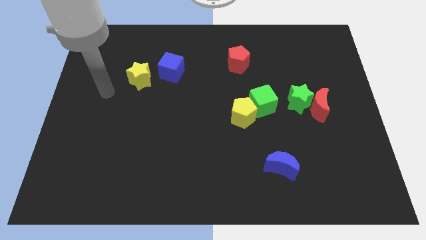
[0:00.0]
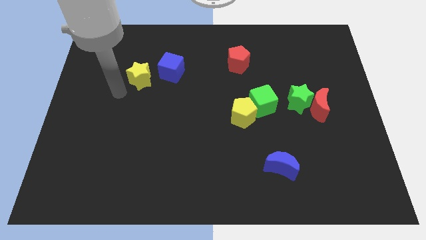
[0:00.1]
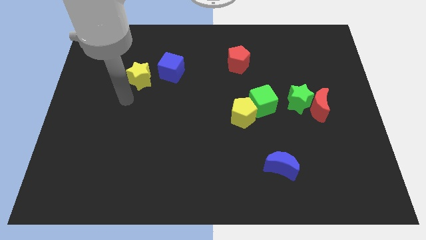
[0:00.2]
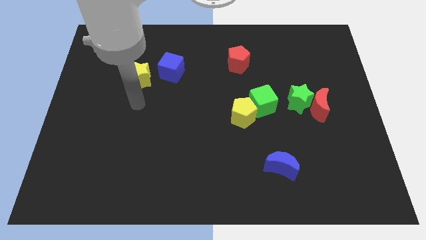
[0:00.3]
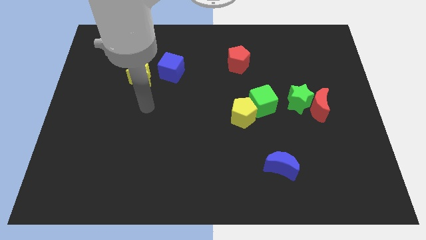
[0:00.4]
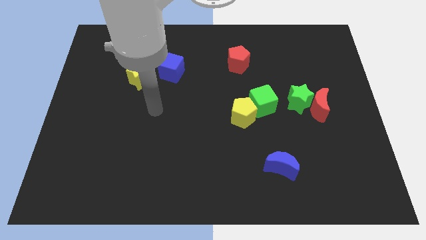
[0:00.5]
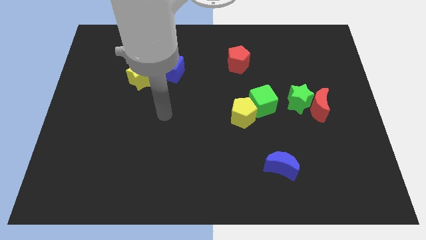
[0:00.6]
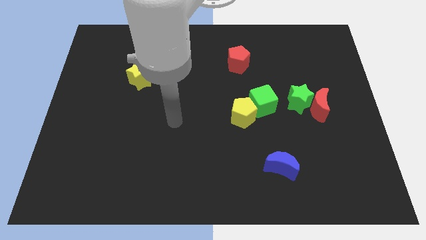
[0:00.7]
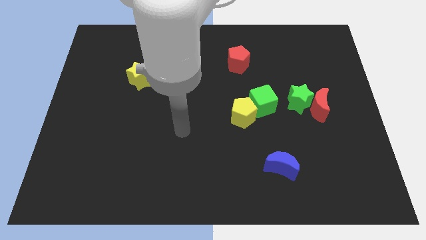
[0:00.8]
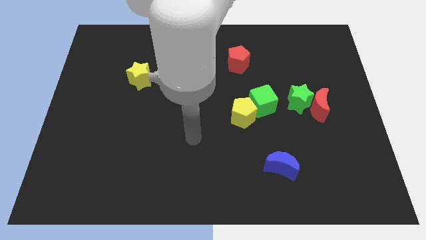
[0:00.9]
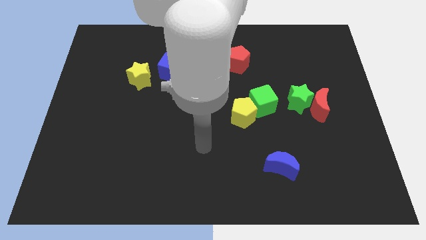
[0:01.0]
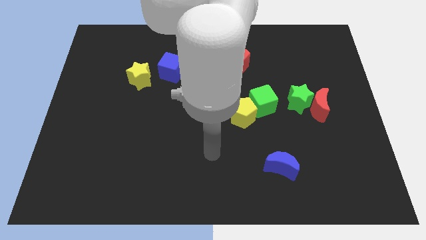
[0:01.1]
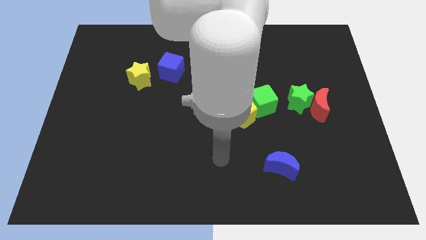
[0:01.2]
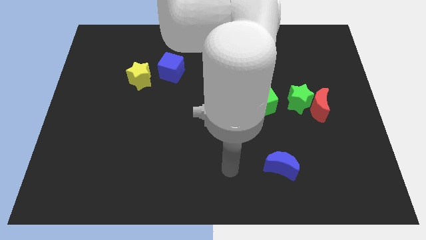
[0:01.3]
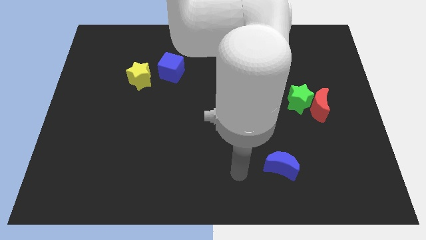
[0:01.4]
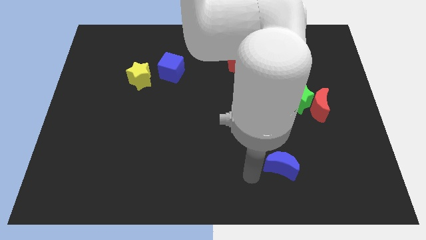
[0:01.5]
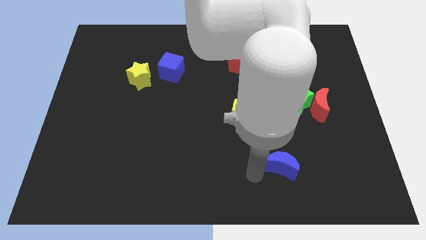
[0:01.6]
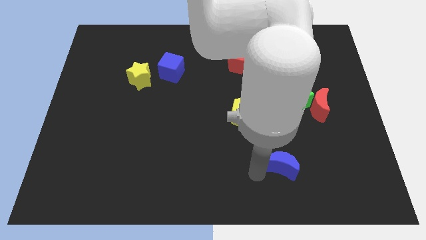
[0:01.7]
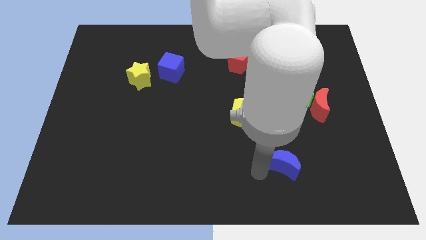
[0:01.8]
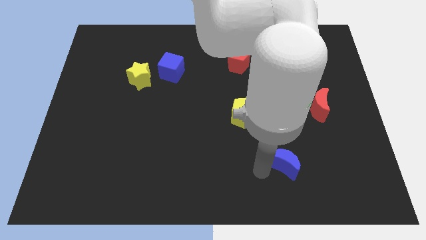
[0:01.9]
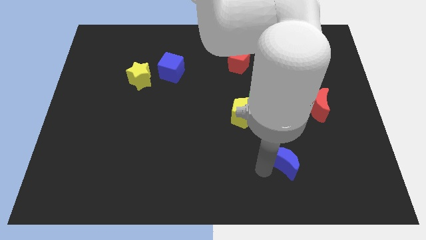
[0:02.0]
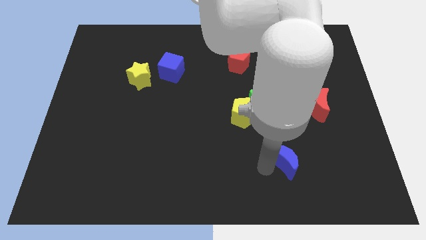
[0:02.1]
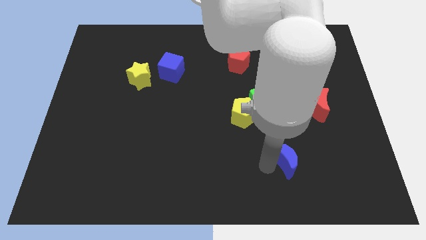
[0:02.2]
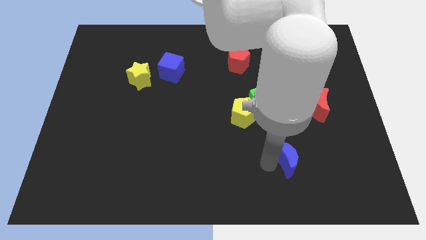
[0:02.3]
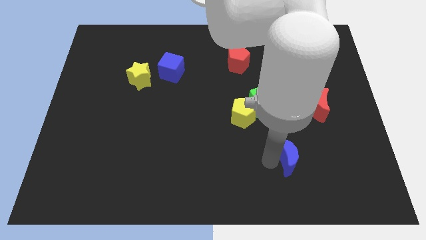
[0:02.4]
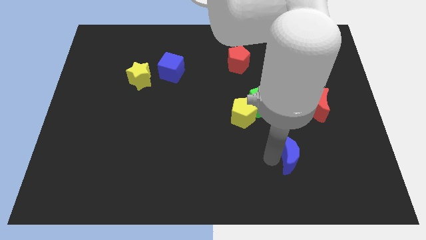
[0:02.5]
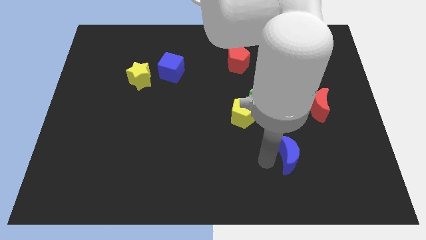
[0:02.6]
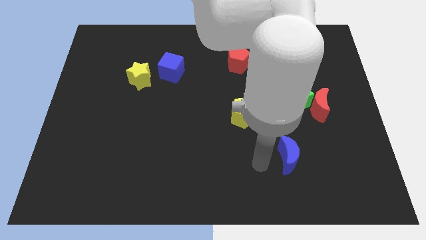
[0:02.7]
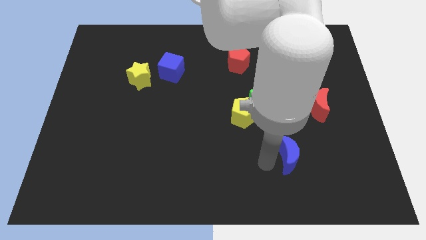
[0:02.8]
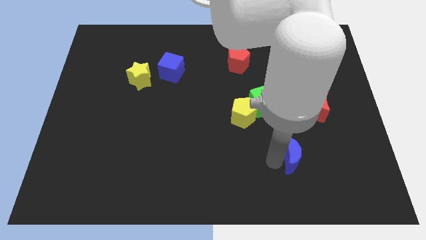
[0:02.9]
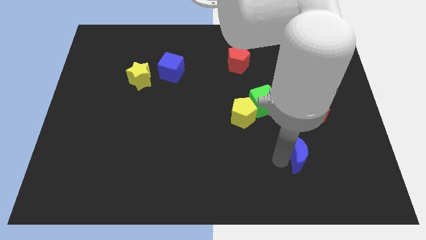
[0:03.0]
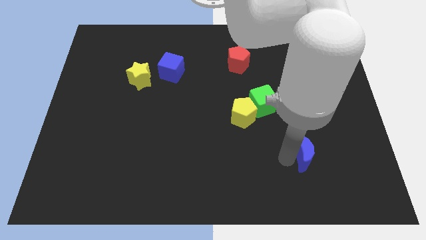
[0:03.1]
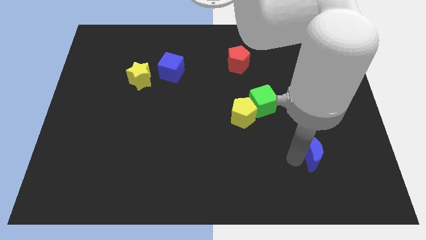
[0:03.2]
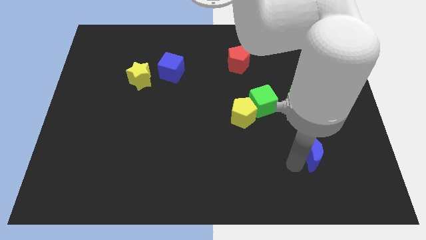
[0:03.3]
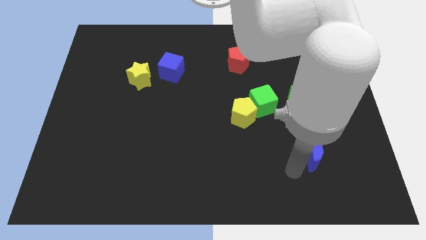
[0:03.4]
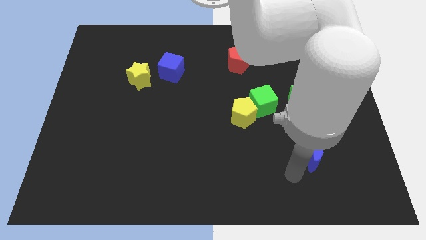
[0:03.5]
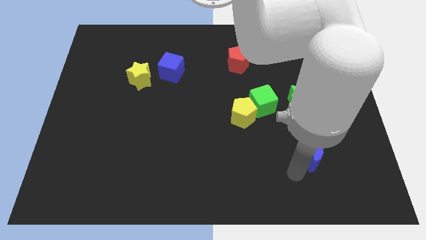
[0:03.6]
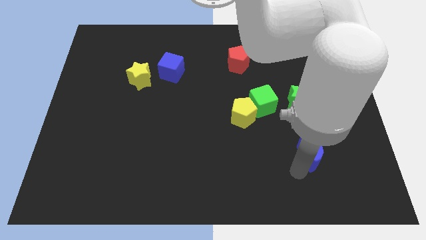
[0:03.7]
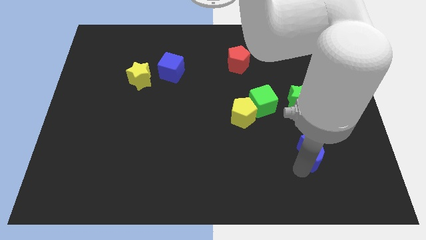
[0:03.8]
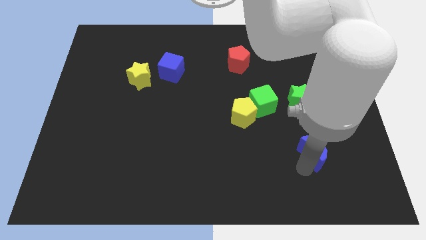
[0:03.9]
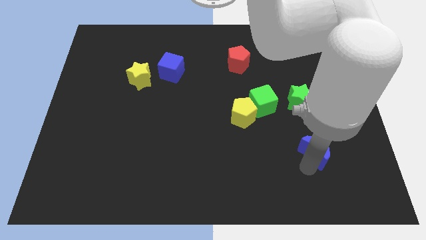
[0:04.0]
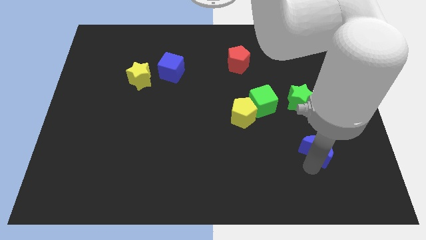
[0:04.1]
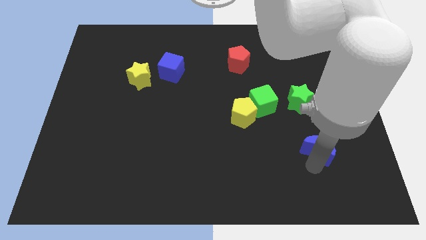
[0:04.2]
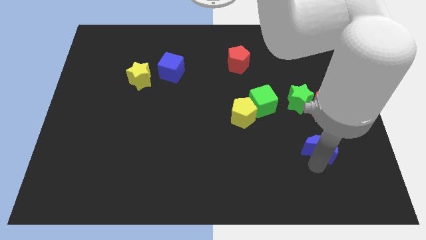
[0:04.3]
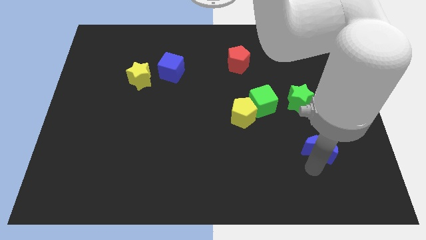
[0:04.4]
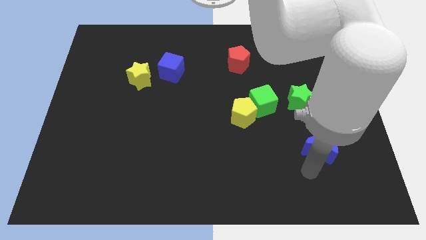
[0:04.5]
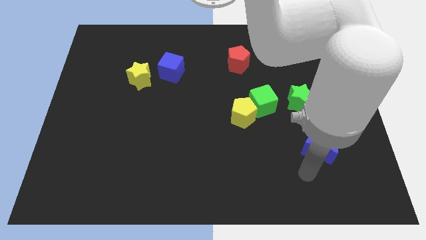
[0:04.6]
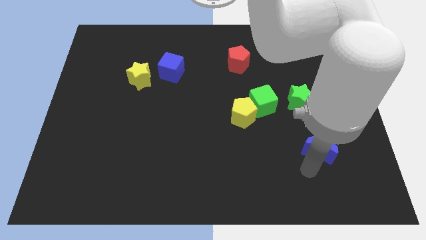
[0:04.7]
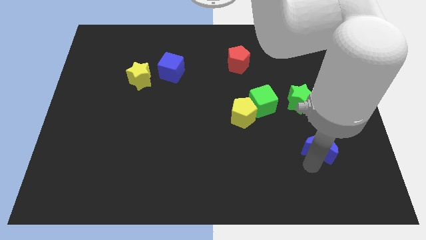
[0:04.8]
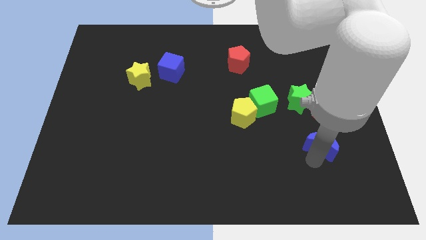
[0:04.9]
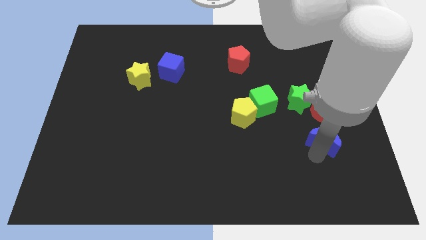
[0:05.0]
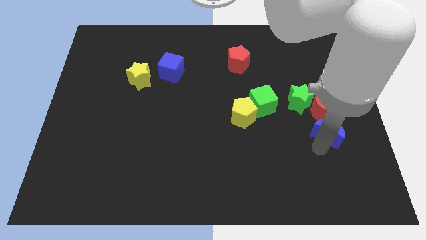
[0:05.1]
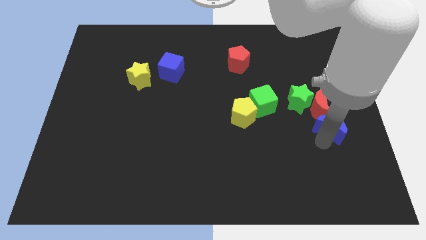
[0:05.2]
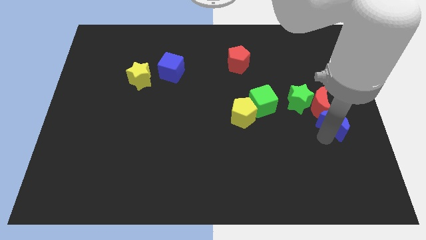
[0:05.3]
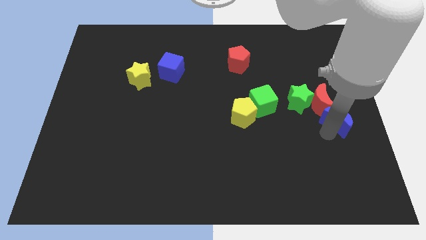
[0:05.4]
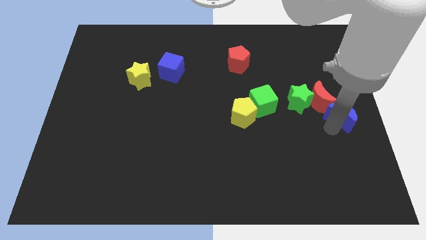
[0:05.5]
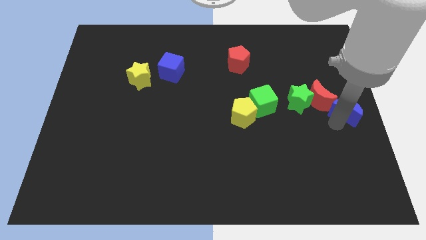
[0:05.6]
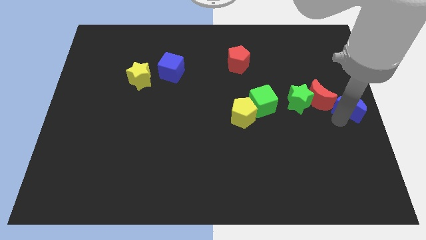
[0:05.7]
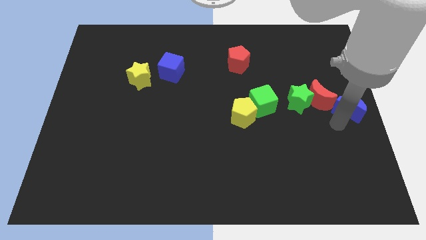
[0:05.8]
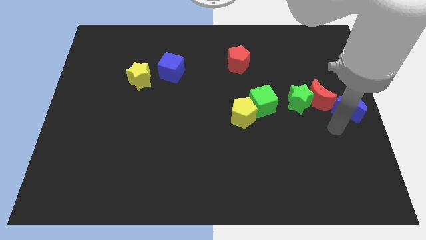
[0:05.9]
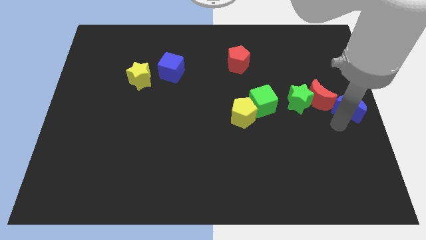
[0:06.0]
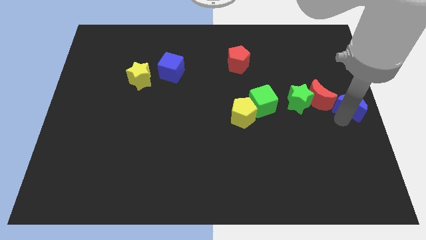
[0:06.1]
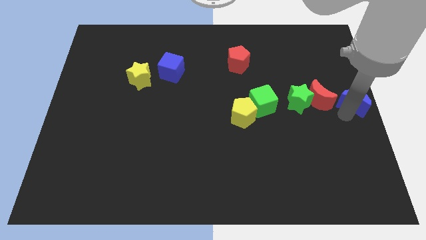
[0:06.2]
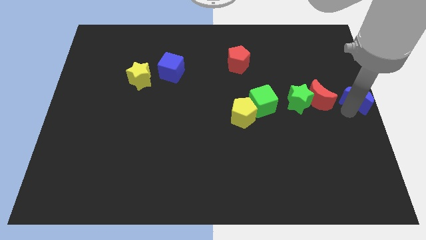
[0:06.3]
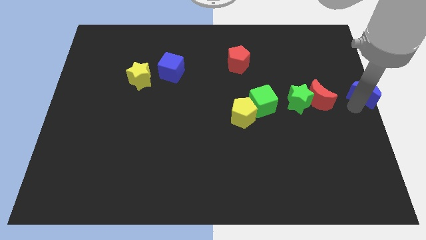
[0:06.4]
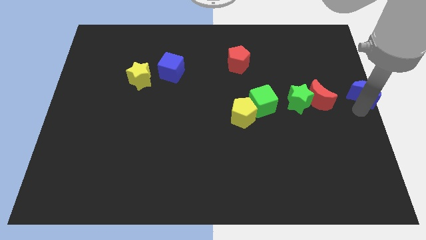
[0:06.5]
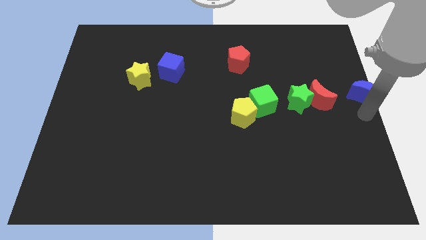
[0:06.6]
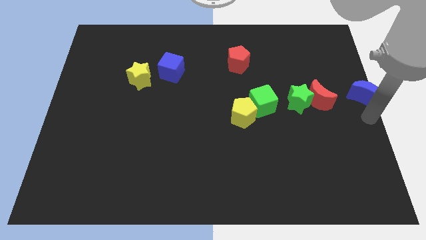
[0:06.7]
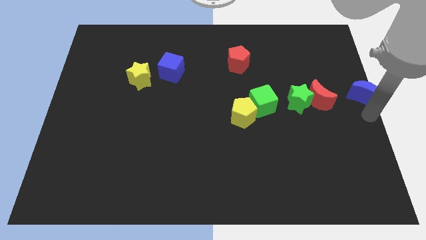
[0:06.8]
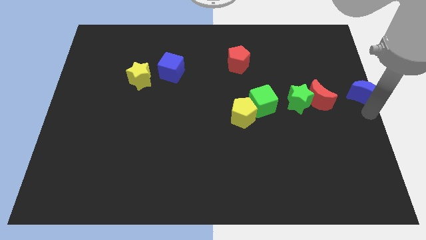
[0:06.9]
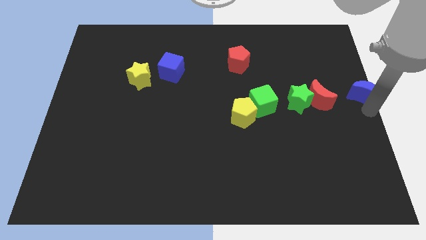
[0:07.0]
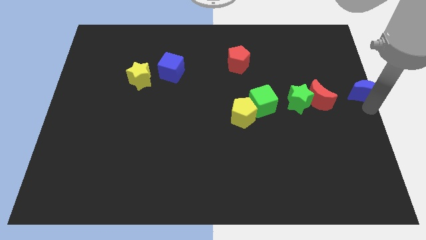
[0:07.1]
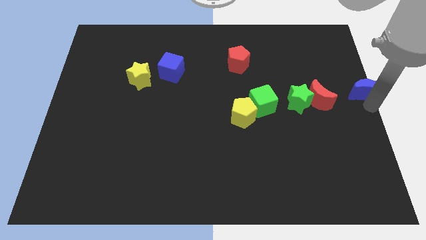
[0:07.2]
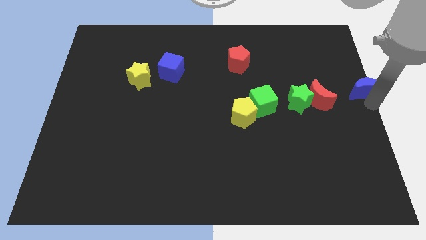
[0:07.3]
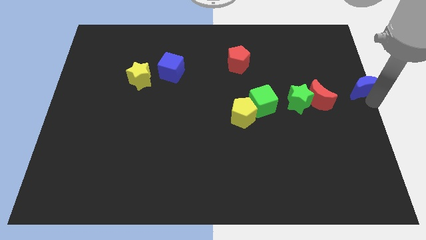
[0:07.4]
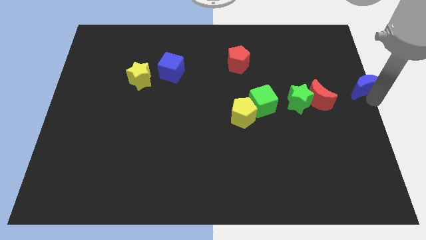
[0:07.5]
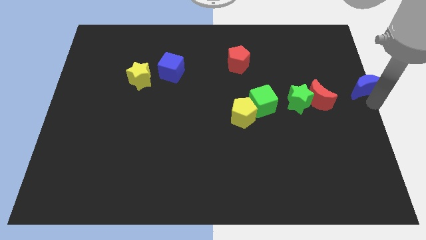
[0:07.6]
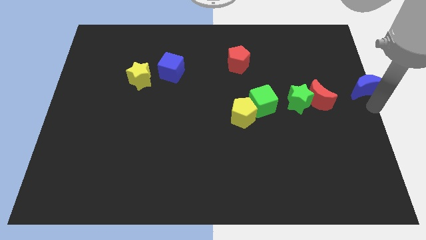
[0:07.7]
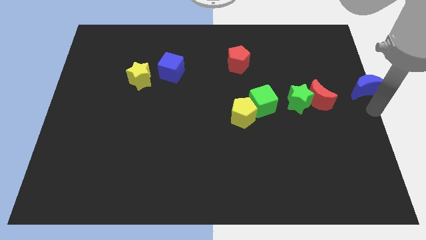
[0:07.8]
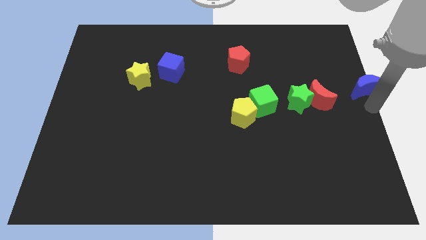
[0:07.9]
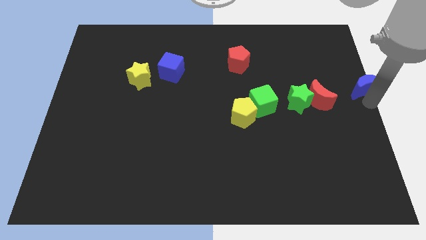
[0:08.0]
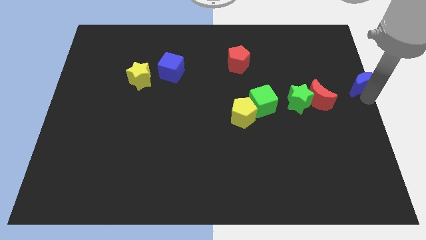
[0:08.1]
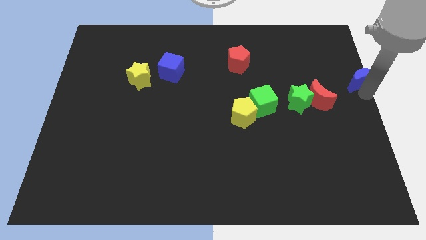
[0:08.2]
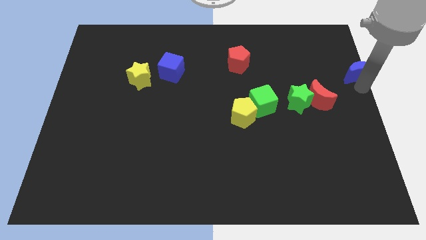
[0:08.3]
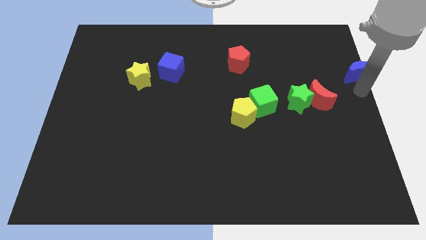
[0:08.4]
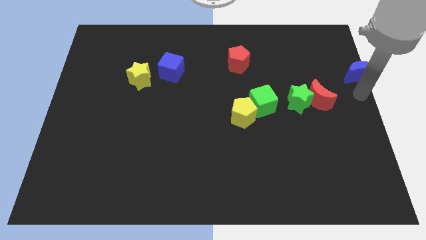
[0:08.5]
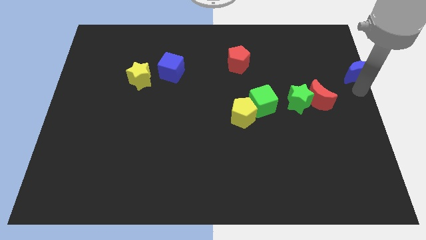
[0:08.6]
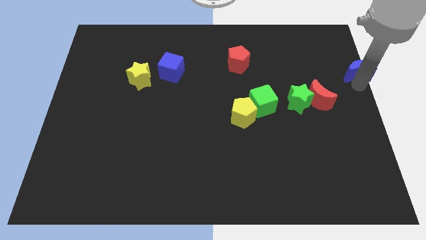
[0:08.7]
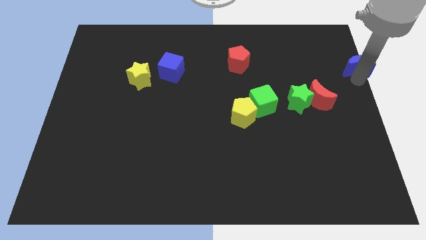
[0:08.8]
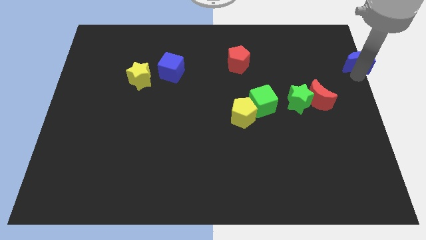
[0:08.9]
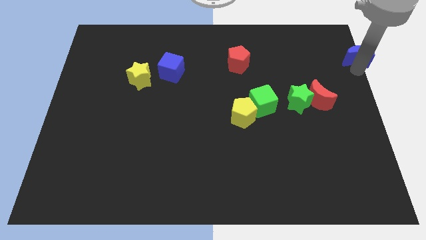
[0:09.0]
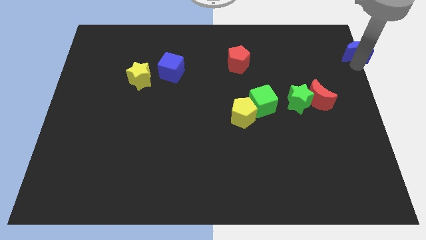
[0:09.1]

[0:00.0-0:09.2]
push the blue moon to the upper right corner
